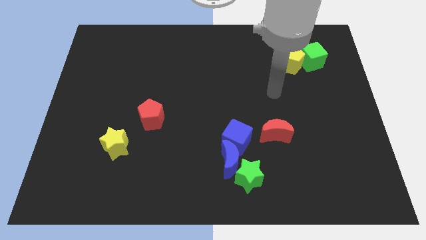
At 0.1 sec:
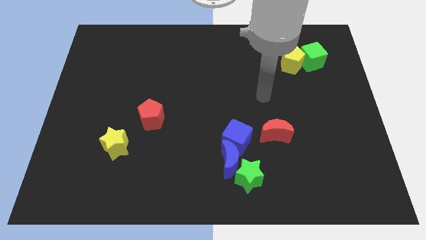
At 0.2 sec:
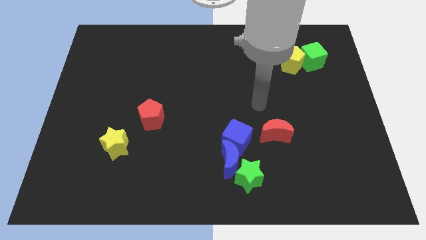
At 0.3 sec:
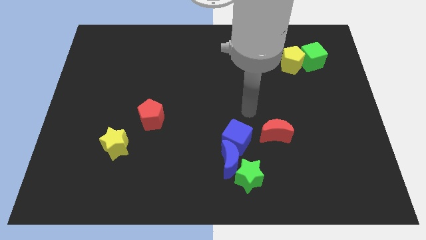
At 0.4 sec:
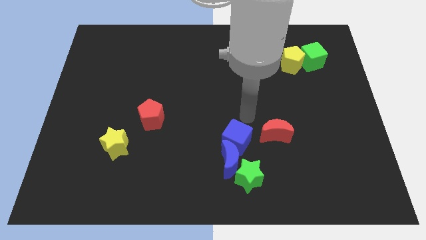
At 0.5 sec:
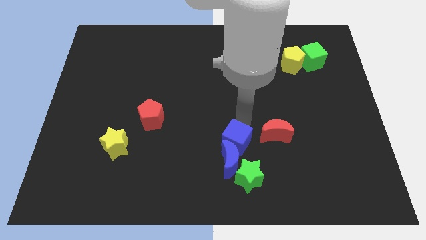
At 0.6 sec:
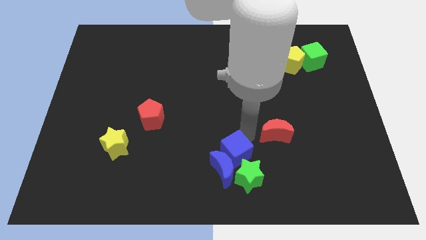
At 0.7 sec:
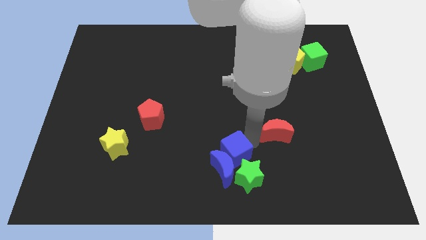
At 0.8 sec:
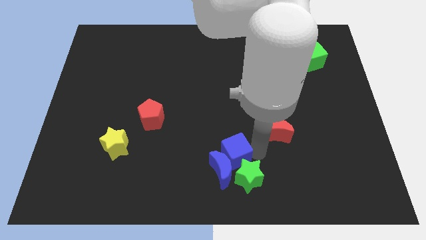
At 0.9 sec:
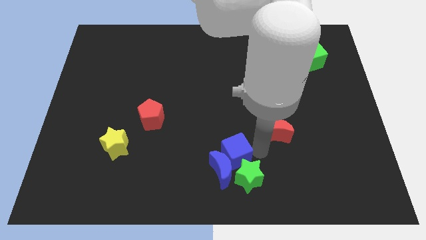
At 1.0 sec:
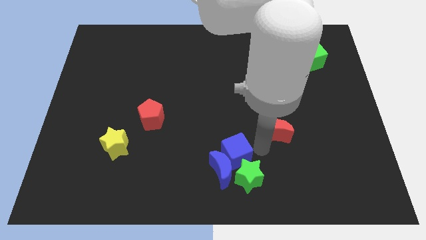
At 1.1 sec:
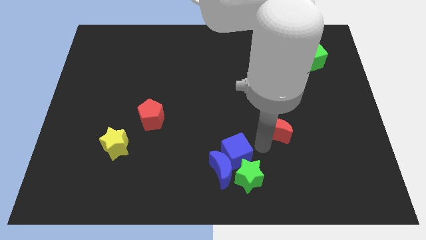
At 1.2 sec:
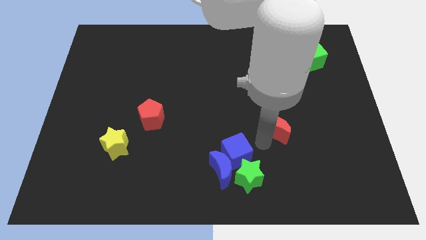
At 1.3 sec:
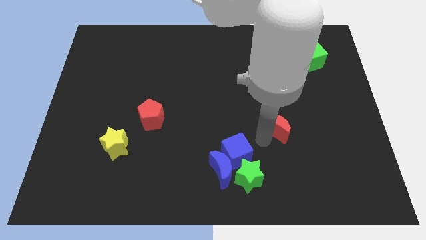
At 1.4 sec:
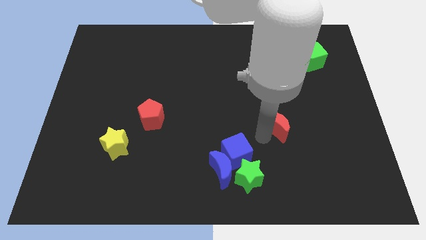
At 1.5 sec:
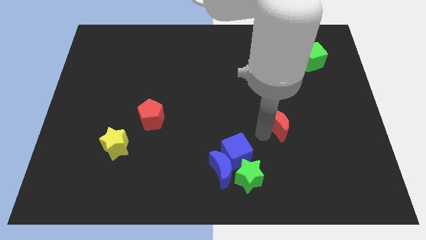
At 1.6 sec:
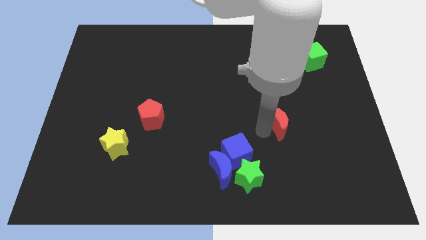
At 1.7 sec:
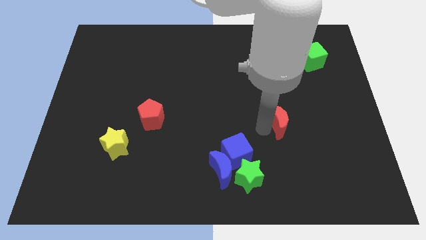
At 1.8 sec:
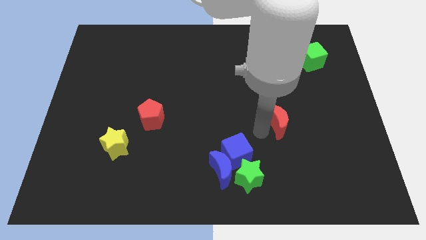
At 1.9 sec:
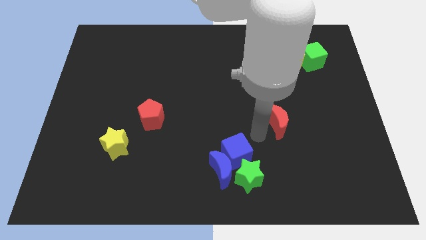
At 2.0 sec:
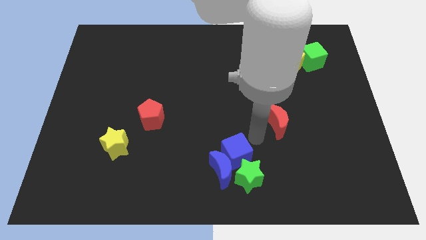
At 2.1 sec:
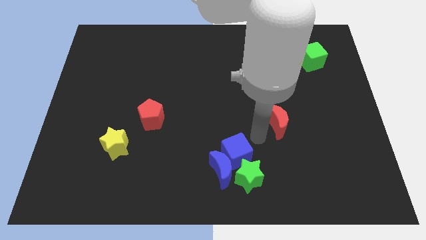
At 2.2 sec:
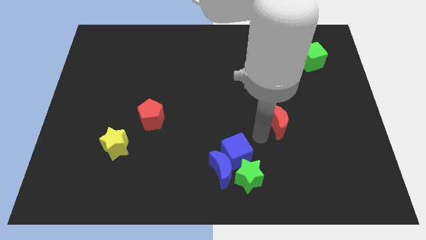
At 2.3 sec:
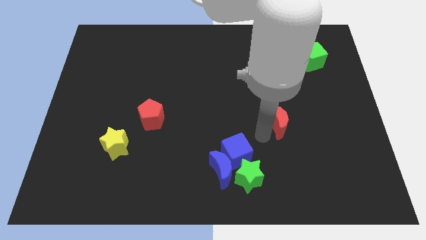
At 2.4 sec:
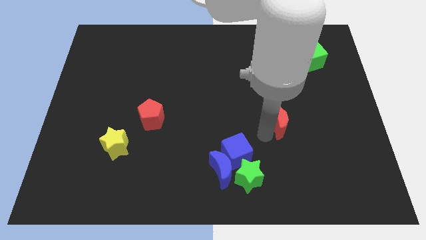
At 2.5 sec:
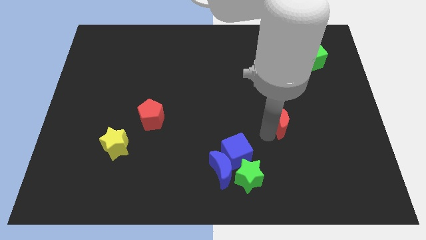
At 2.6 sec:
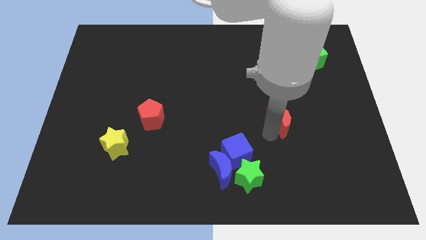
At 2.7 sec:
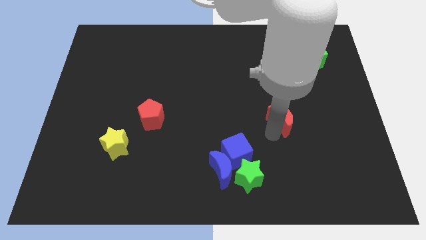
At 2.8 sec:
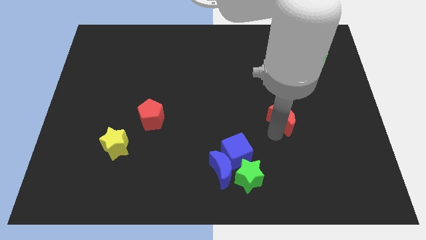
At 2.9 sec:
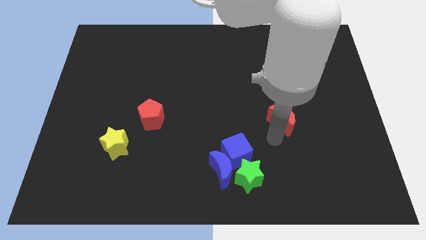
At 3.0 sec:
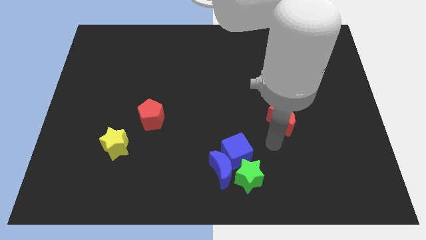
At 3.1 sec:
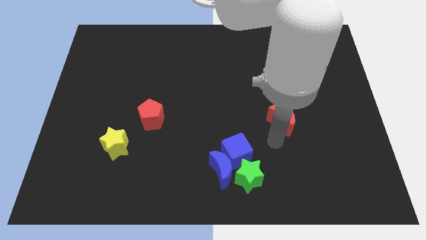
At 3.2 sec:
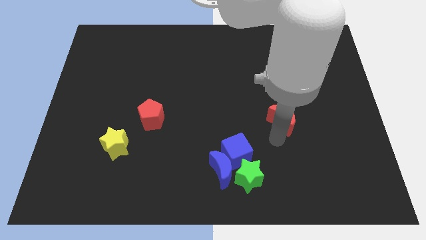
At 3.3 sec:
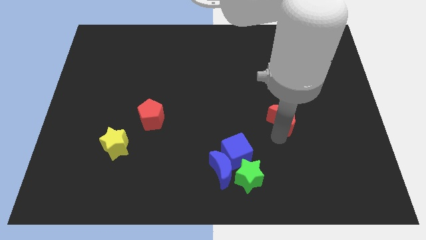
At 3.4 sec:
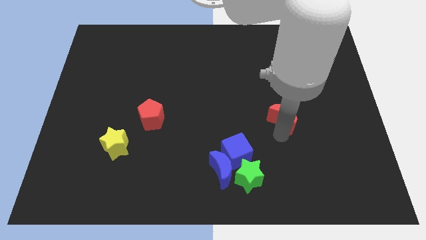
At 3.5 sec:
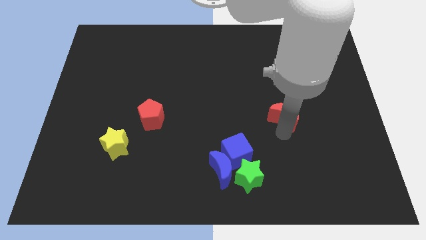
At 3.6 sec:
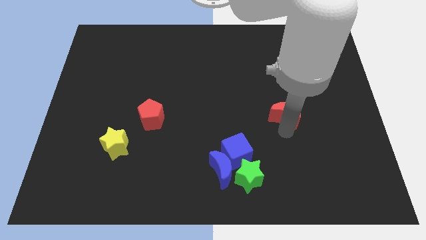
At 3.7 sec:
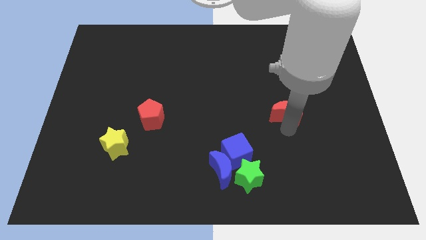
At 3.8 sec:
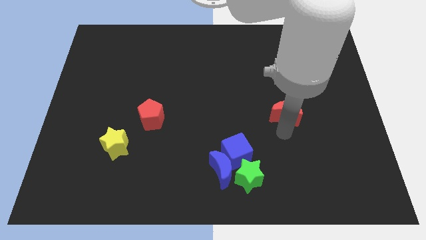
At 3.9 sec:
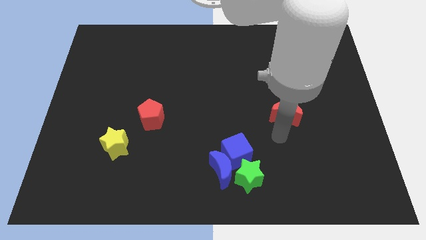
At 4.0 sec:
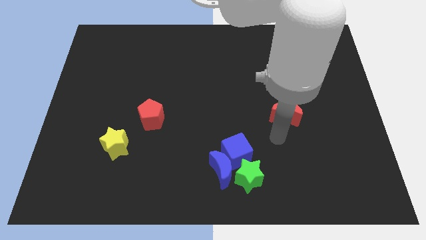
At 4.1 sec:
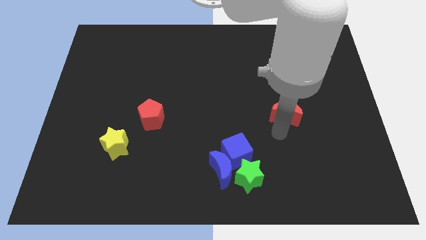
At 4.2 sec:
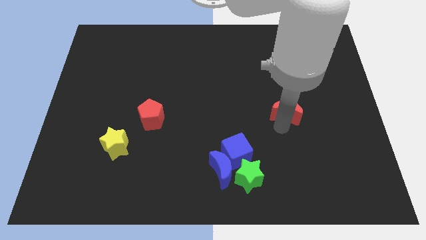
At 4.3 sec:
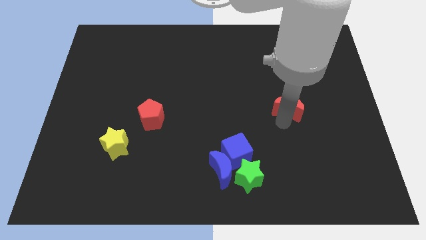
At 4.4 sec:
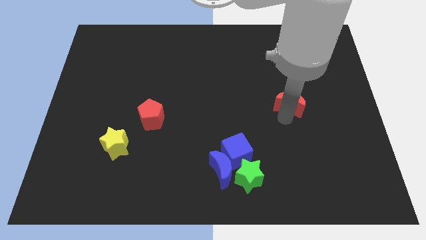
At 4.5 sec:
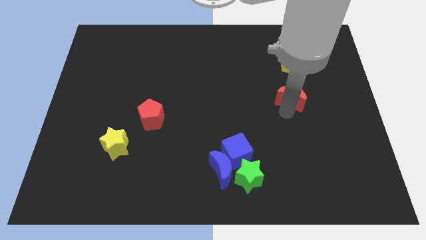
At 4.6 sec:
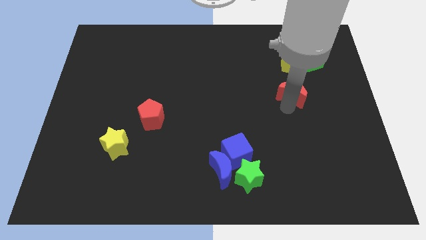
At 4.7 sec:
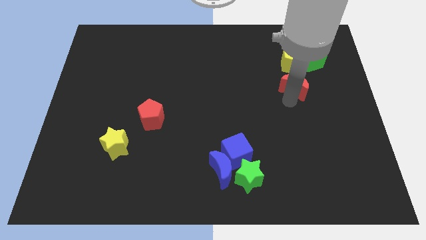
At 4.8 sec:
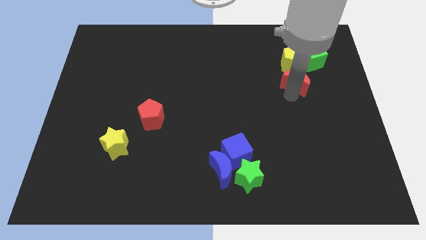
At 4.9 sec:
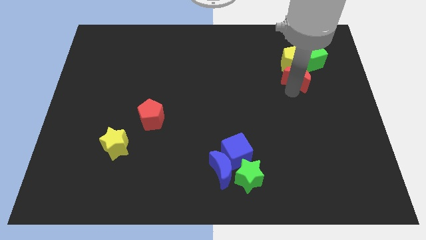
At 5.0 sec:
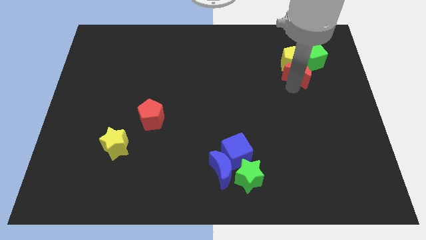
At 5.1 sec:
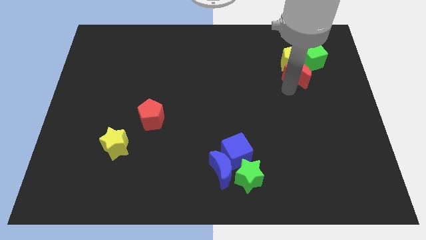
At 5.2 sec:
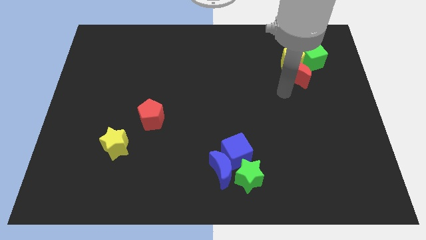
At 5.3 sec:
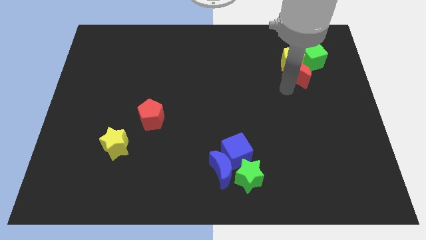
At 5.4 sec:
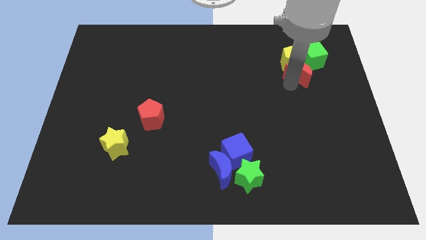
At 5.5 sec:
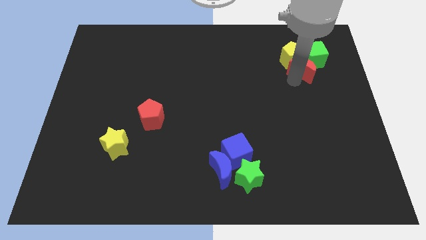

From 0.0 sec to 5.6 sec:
slide the red moon to the green cube

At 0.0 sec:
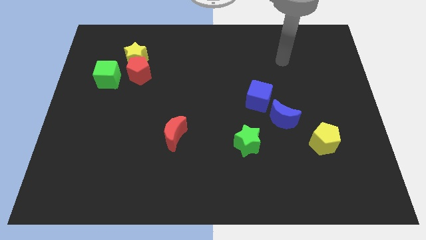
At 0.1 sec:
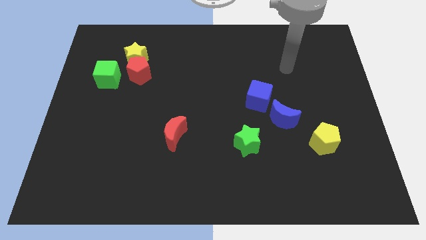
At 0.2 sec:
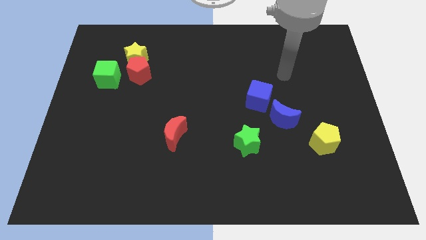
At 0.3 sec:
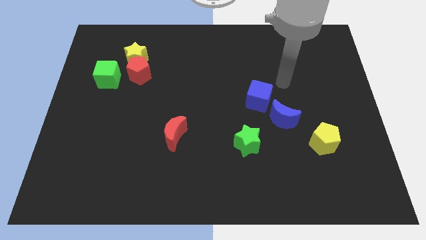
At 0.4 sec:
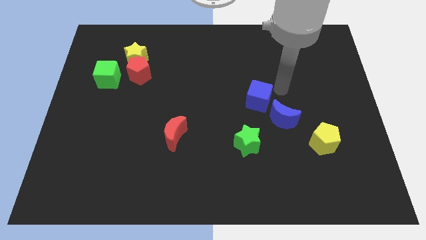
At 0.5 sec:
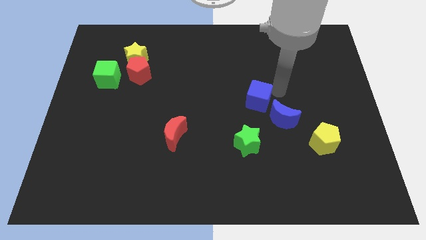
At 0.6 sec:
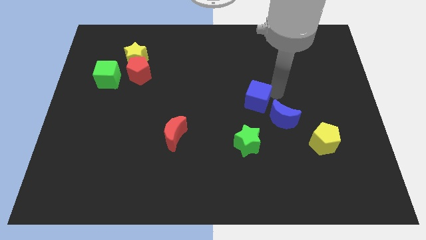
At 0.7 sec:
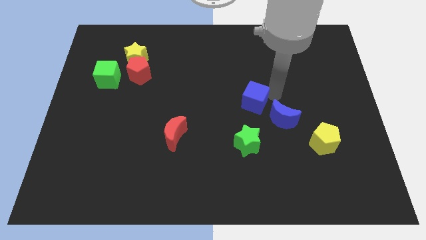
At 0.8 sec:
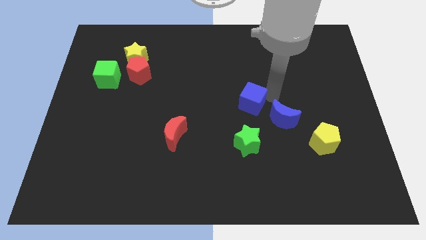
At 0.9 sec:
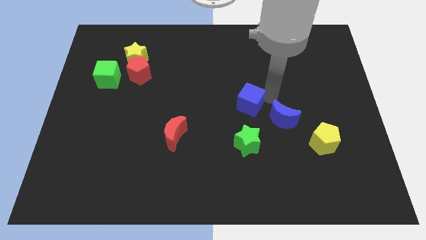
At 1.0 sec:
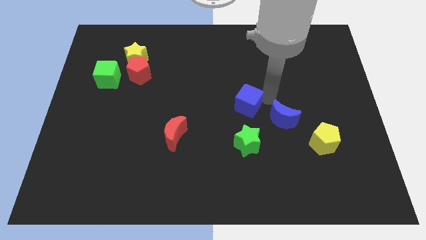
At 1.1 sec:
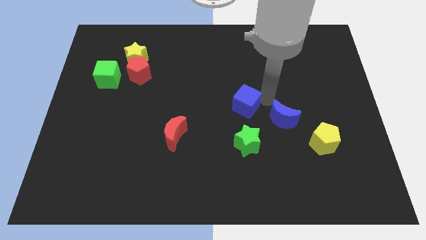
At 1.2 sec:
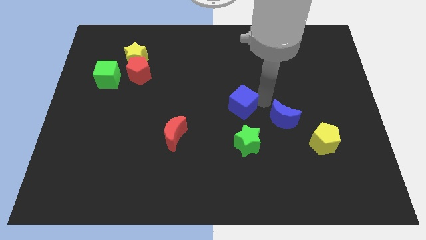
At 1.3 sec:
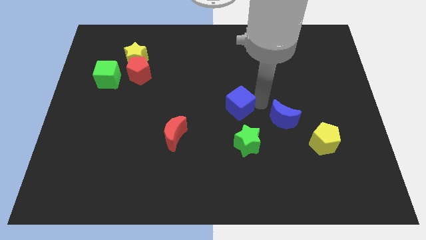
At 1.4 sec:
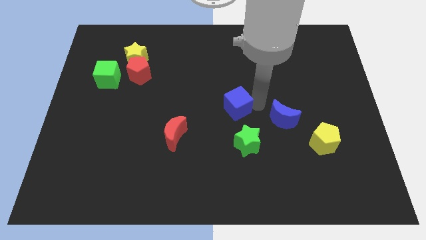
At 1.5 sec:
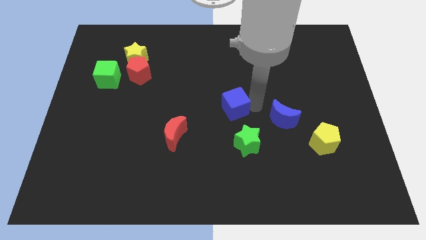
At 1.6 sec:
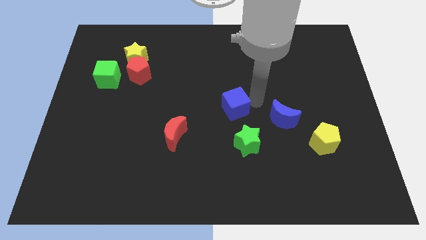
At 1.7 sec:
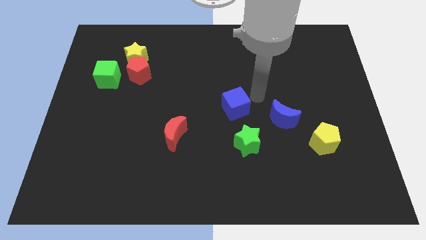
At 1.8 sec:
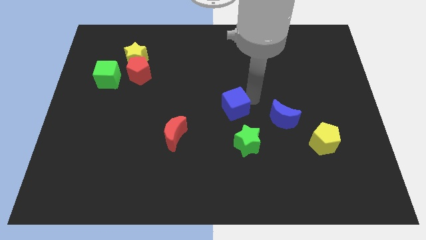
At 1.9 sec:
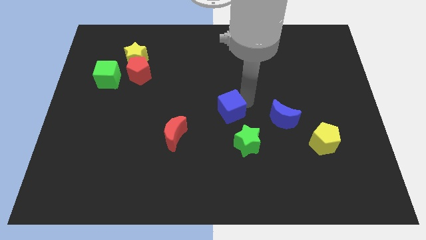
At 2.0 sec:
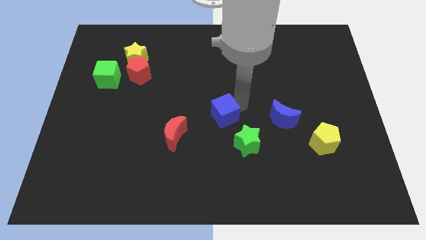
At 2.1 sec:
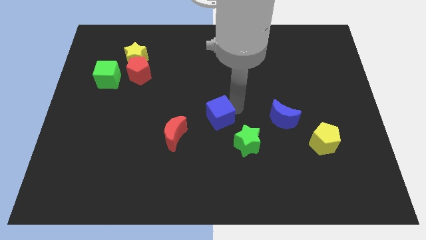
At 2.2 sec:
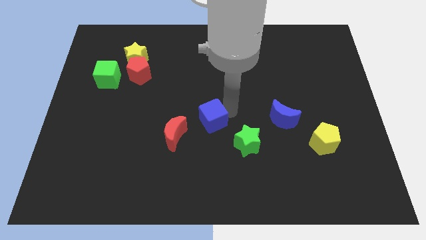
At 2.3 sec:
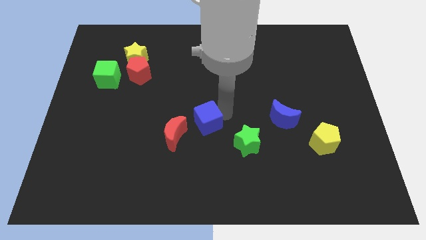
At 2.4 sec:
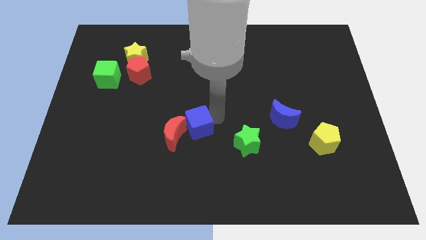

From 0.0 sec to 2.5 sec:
push the blue cube to the red moon
